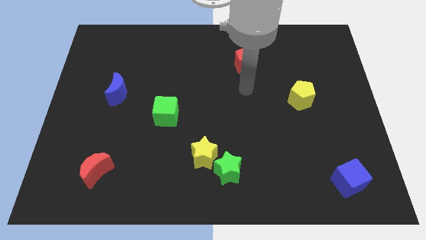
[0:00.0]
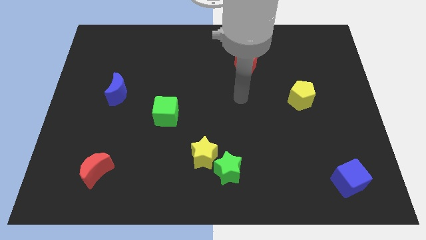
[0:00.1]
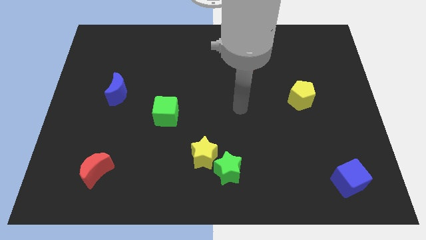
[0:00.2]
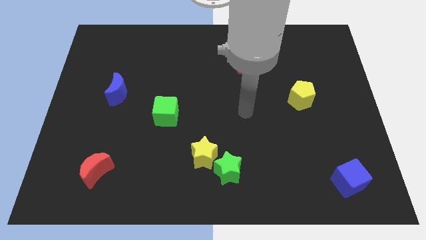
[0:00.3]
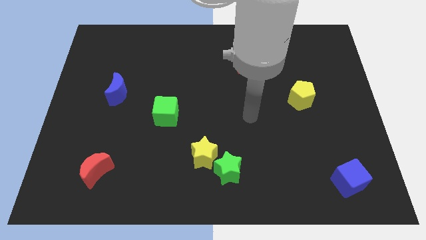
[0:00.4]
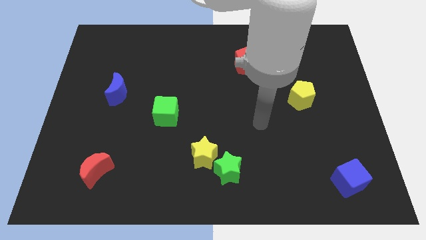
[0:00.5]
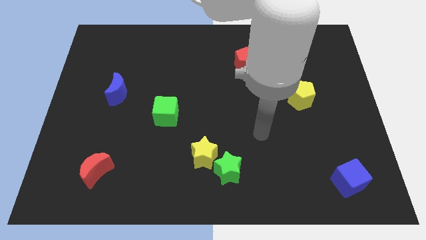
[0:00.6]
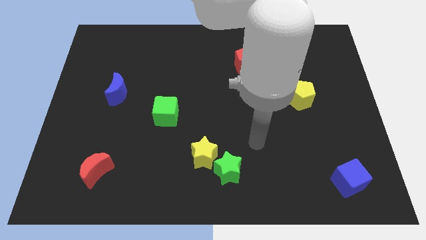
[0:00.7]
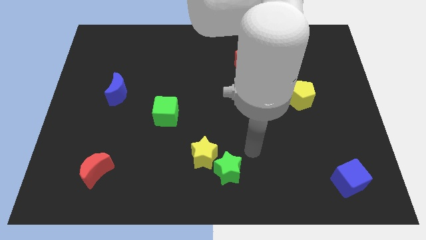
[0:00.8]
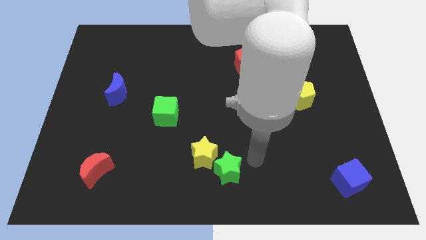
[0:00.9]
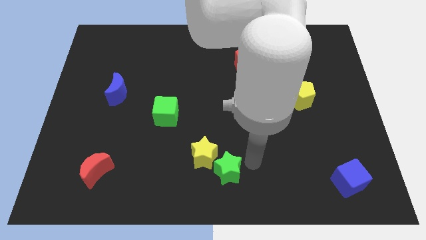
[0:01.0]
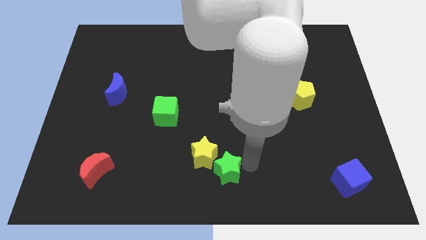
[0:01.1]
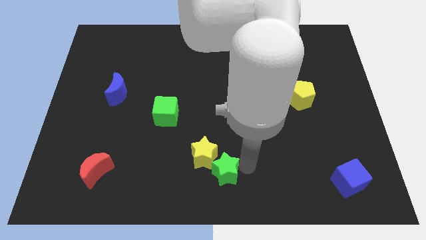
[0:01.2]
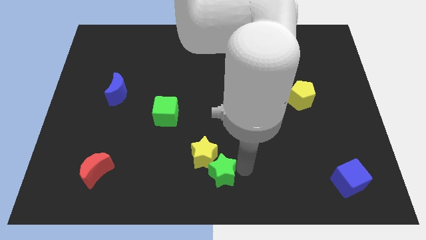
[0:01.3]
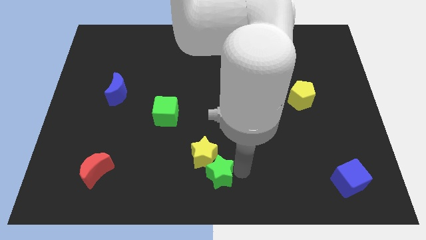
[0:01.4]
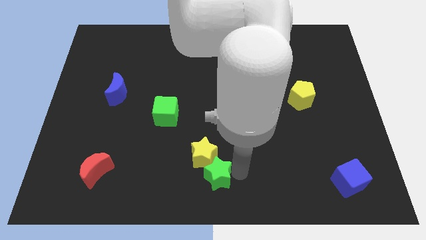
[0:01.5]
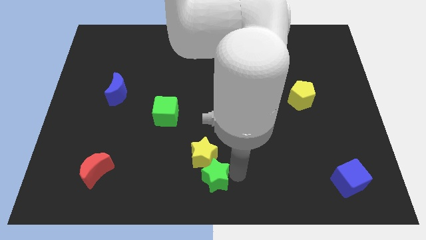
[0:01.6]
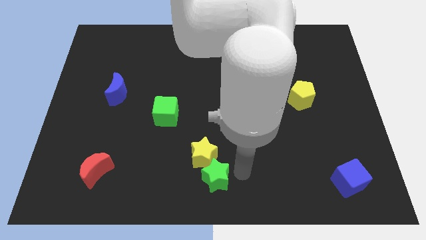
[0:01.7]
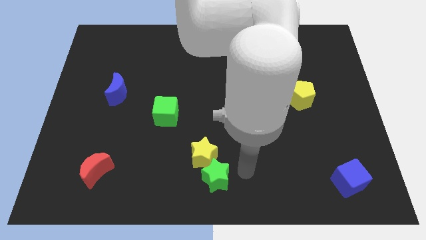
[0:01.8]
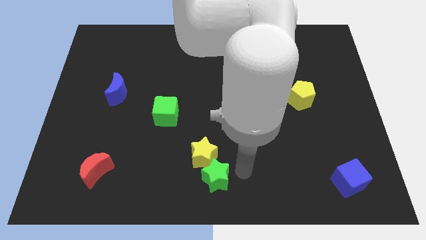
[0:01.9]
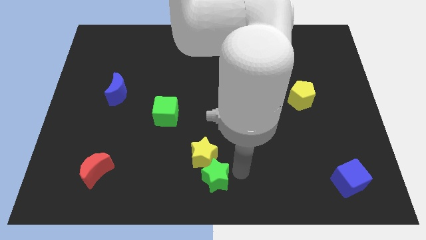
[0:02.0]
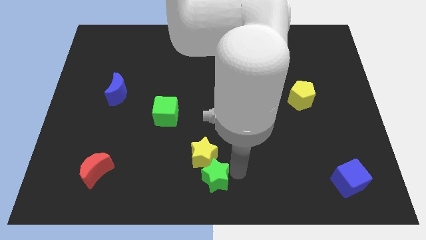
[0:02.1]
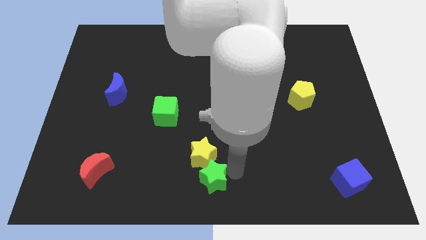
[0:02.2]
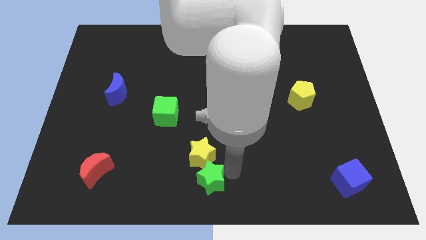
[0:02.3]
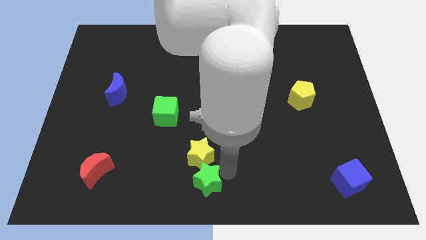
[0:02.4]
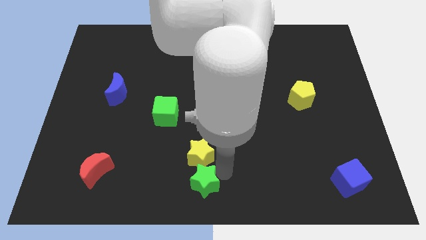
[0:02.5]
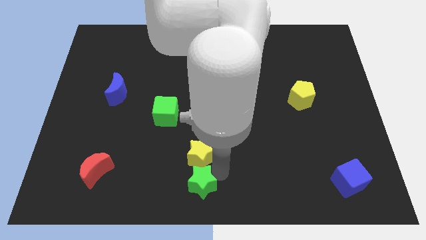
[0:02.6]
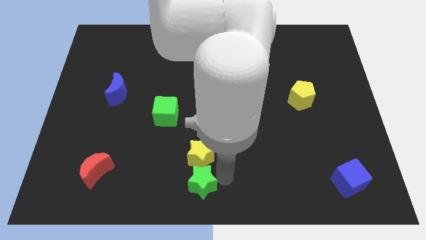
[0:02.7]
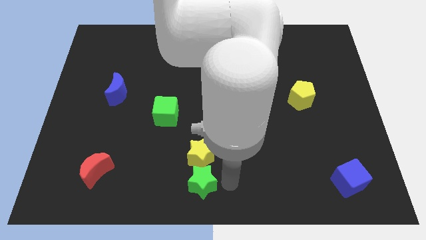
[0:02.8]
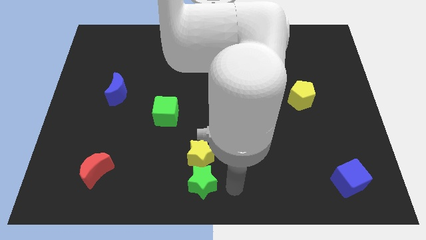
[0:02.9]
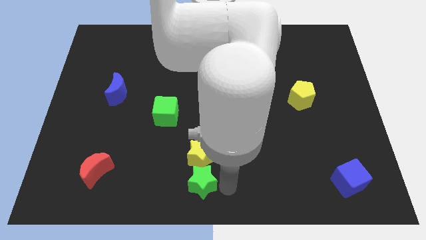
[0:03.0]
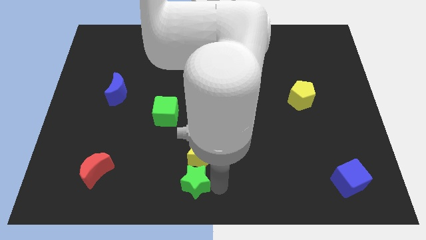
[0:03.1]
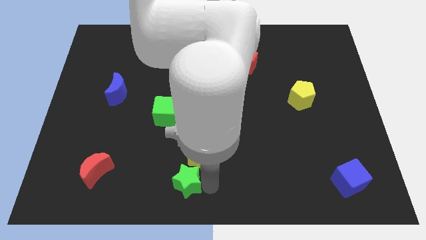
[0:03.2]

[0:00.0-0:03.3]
slightly slide the green star left

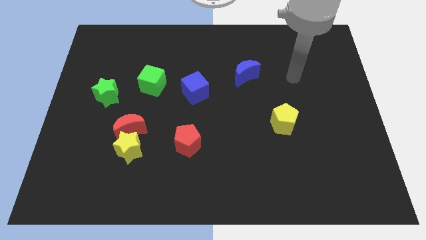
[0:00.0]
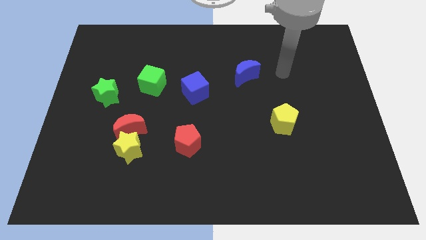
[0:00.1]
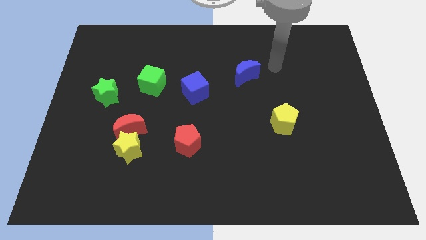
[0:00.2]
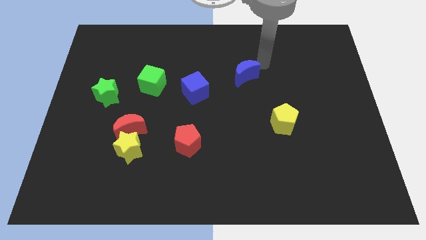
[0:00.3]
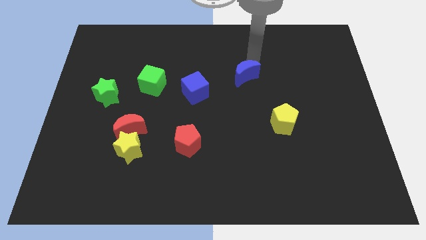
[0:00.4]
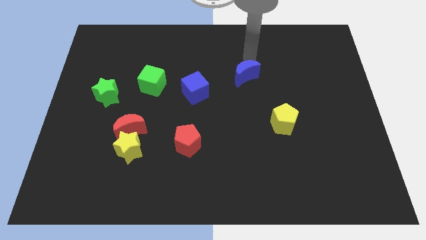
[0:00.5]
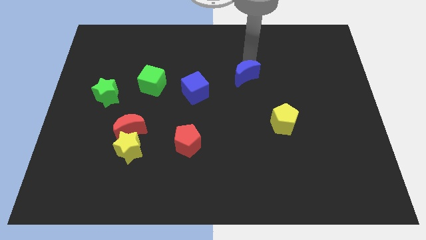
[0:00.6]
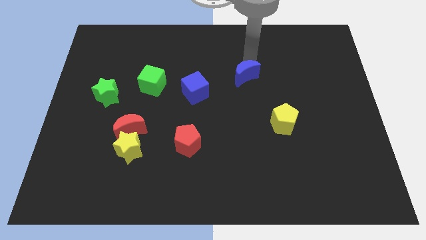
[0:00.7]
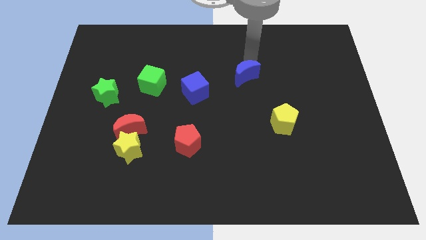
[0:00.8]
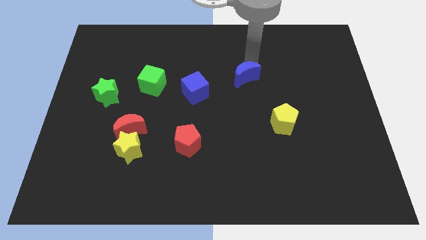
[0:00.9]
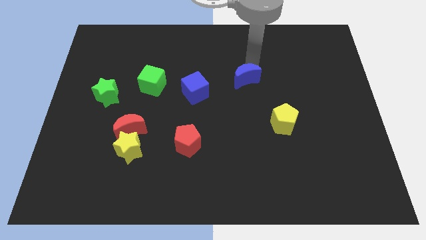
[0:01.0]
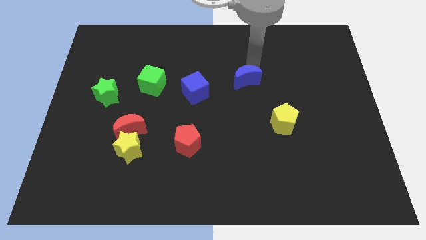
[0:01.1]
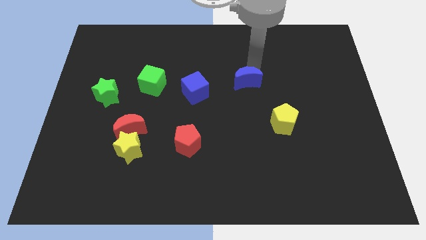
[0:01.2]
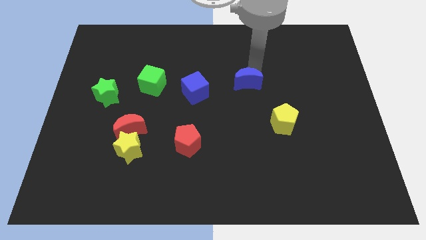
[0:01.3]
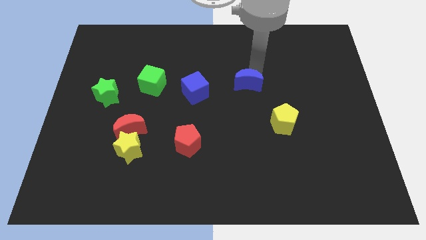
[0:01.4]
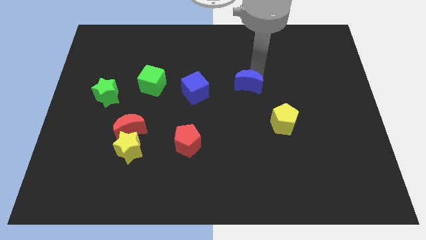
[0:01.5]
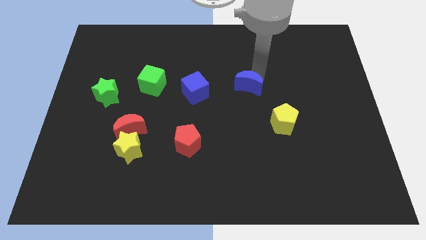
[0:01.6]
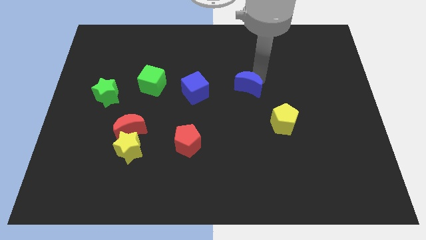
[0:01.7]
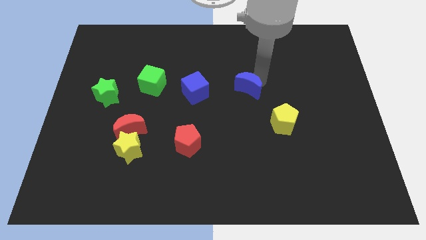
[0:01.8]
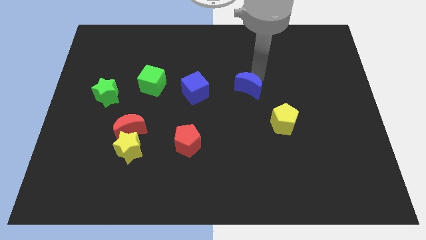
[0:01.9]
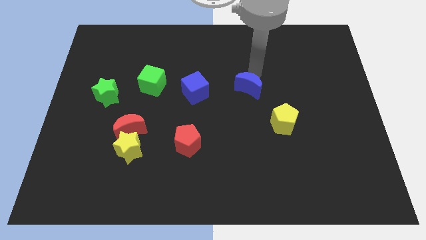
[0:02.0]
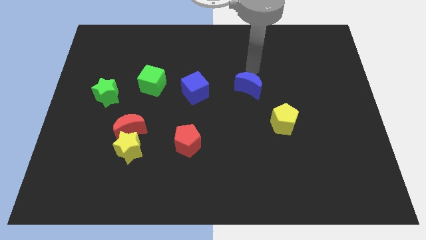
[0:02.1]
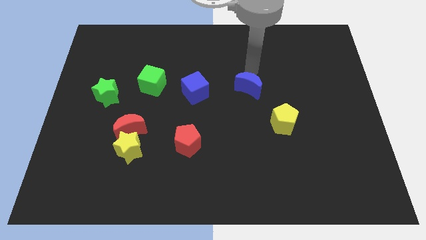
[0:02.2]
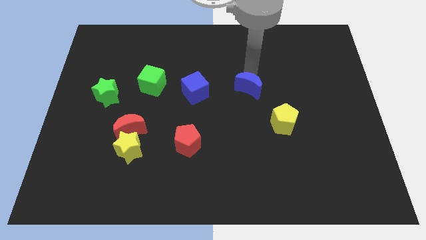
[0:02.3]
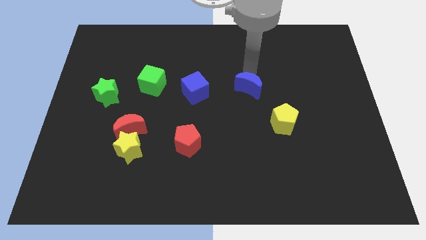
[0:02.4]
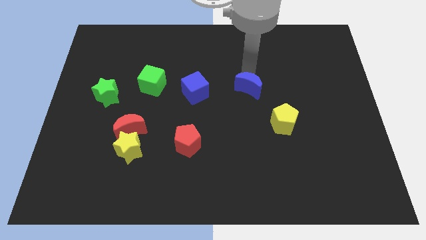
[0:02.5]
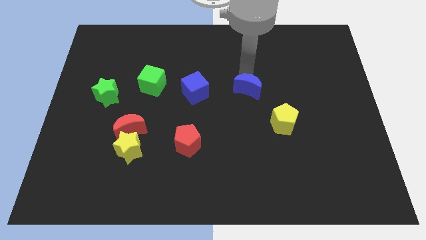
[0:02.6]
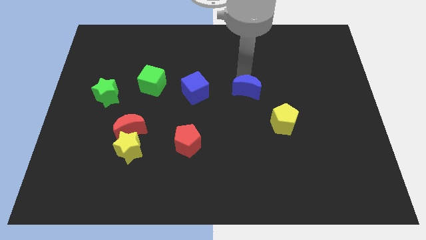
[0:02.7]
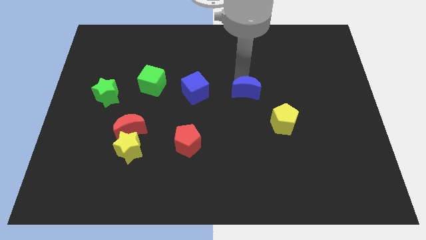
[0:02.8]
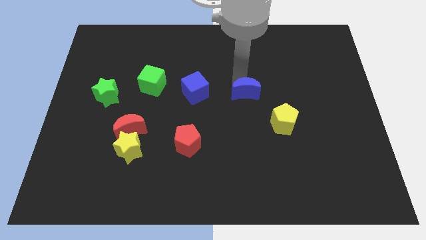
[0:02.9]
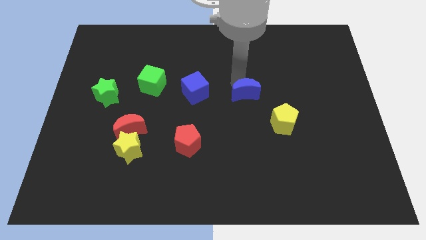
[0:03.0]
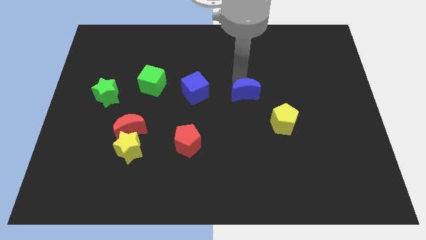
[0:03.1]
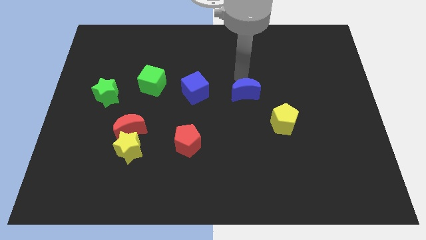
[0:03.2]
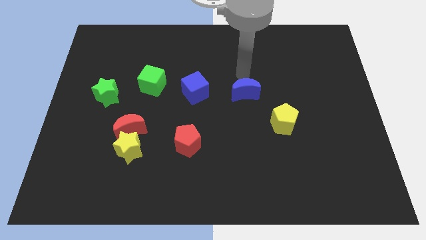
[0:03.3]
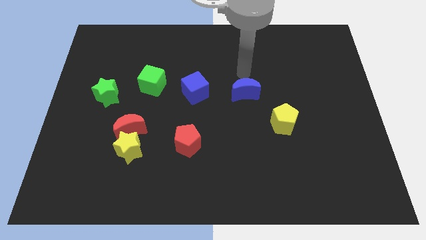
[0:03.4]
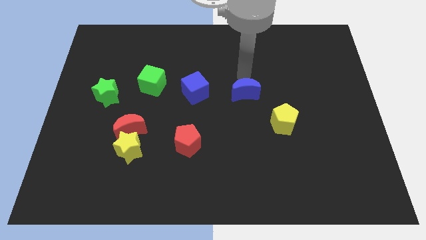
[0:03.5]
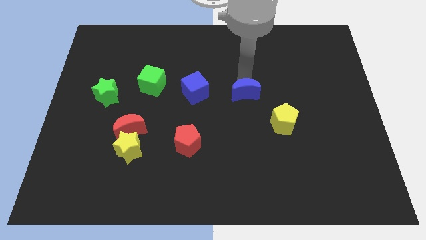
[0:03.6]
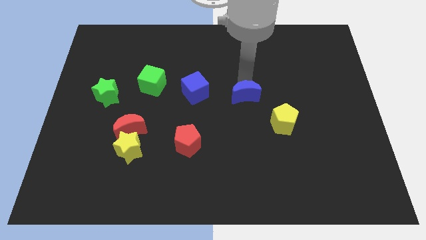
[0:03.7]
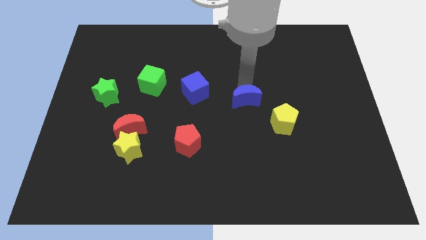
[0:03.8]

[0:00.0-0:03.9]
push the blue moon down a bit

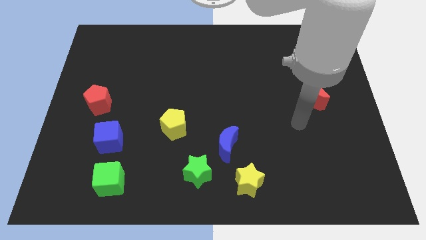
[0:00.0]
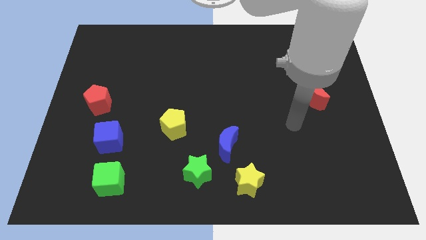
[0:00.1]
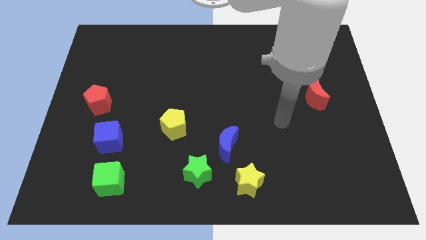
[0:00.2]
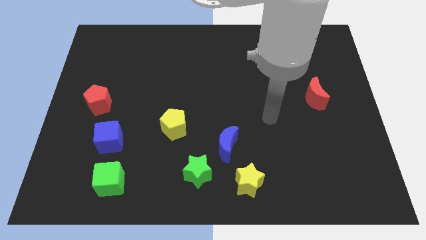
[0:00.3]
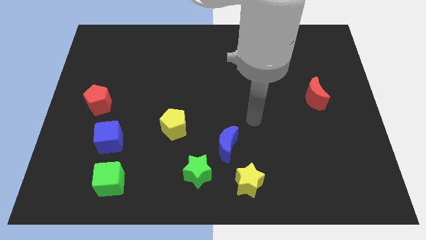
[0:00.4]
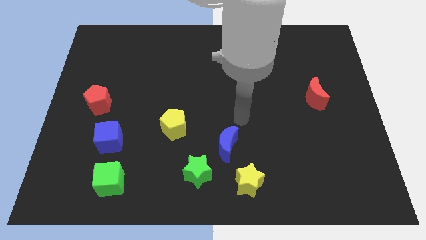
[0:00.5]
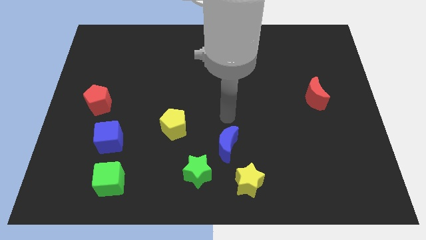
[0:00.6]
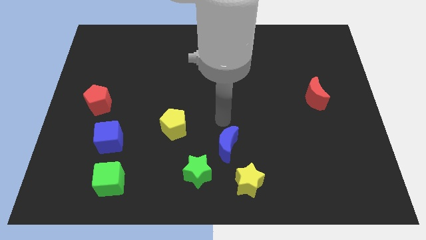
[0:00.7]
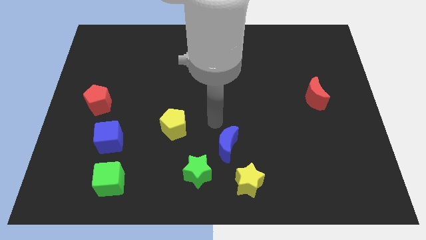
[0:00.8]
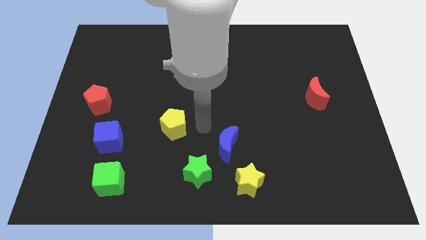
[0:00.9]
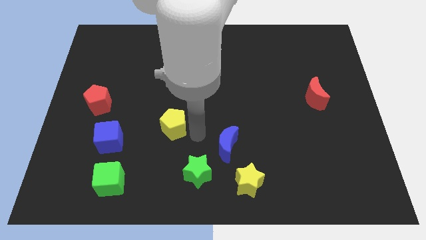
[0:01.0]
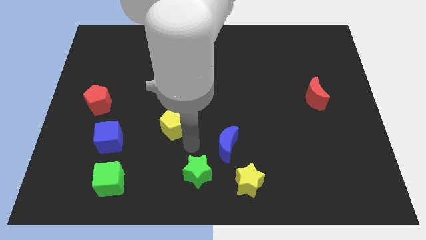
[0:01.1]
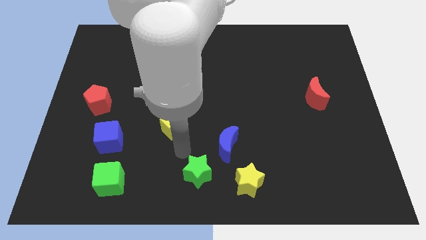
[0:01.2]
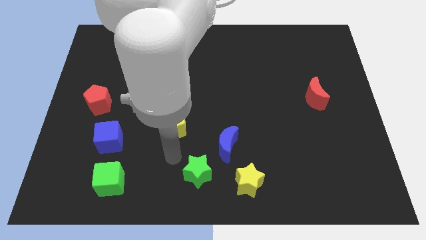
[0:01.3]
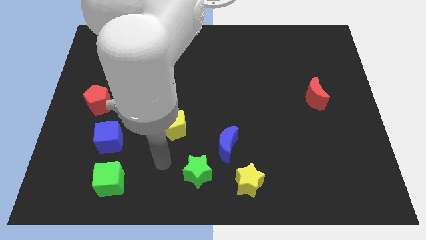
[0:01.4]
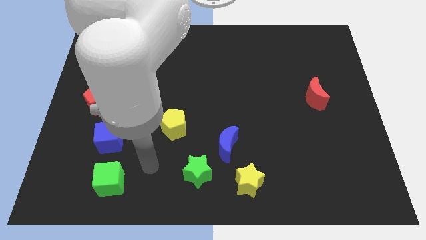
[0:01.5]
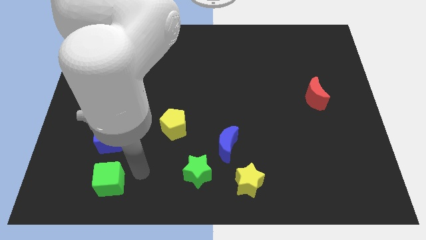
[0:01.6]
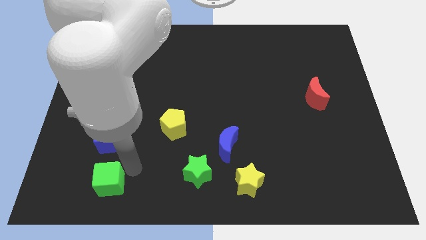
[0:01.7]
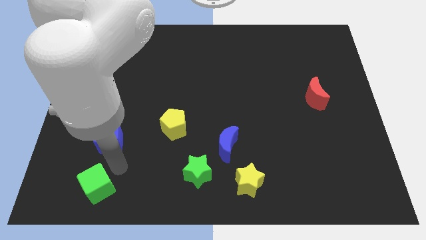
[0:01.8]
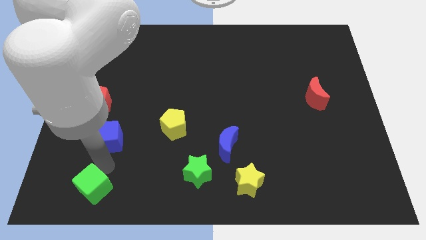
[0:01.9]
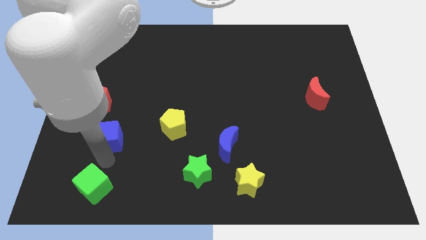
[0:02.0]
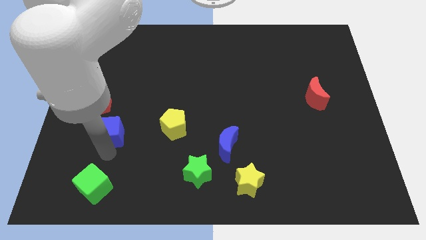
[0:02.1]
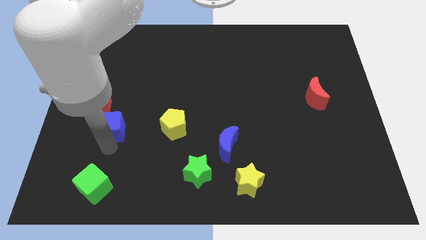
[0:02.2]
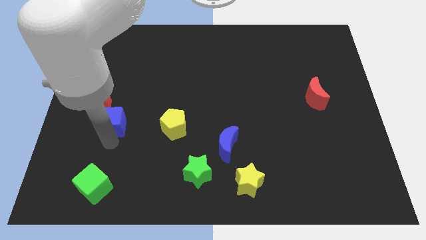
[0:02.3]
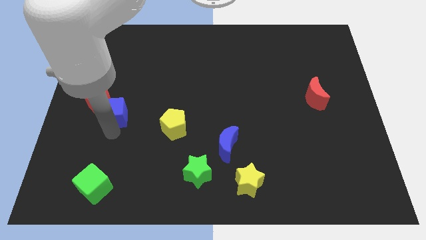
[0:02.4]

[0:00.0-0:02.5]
slightly push the blue cube upwards
